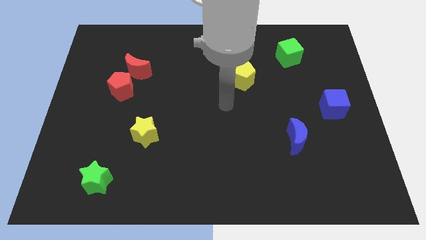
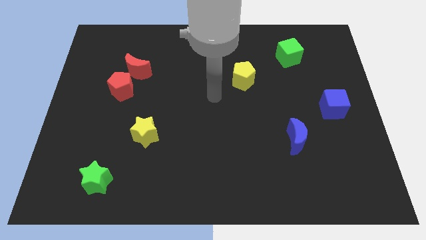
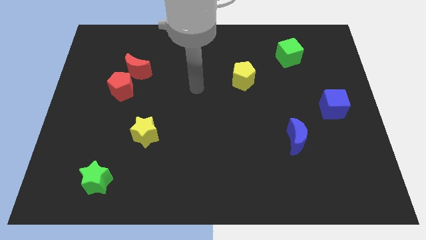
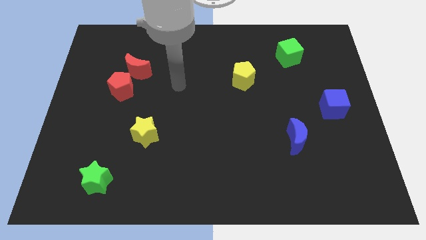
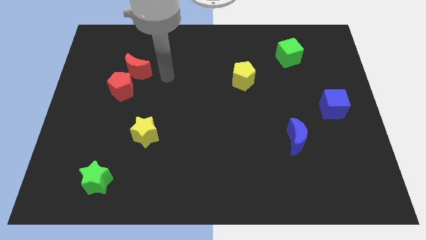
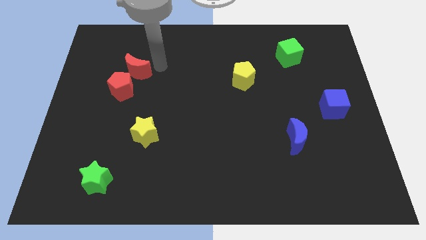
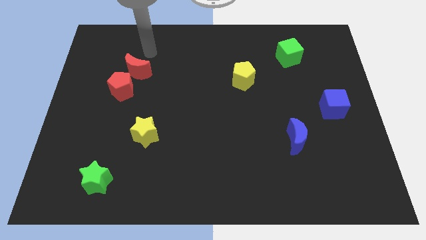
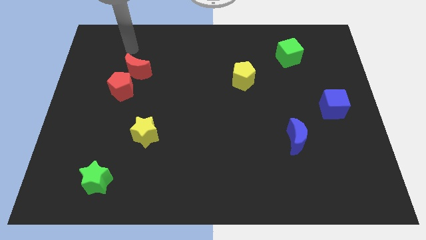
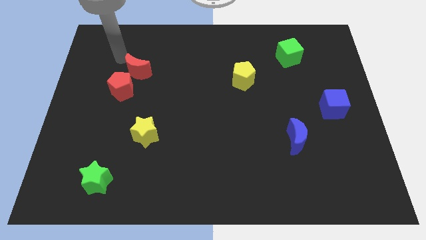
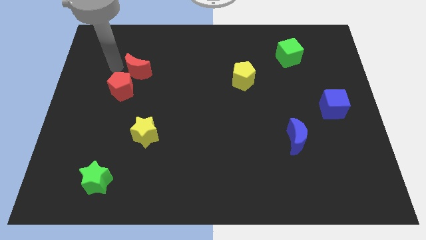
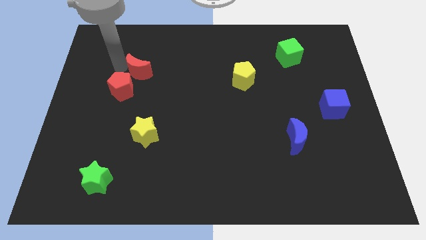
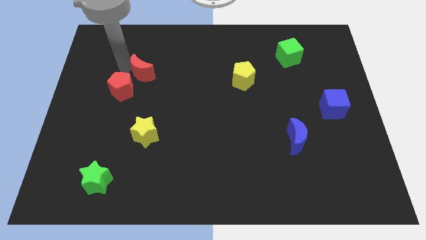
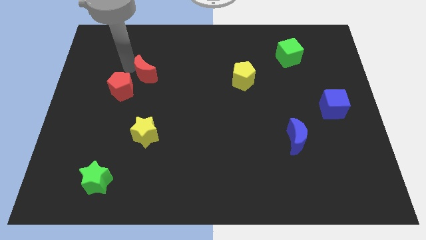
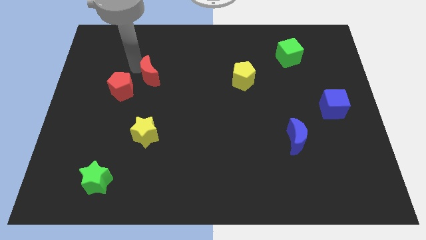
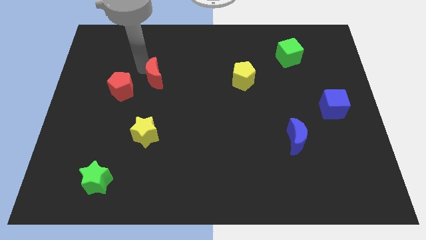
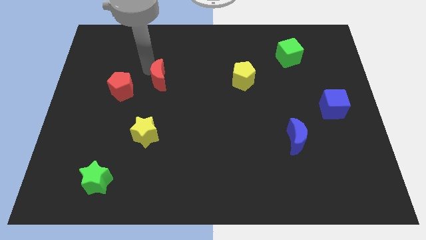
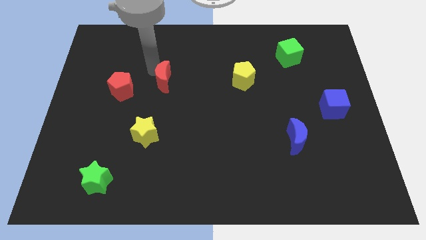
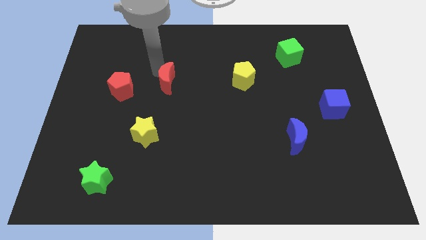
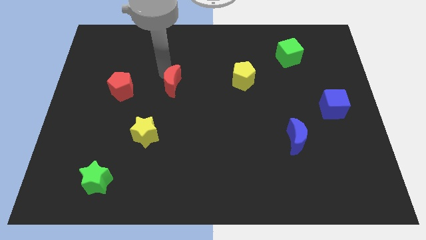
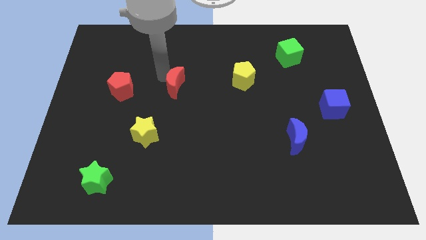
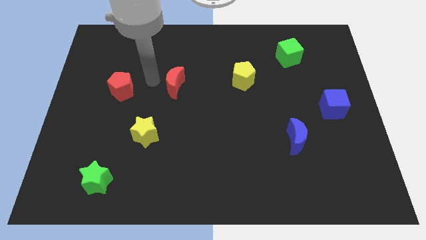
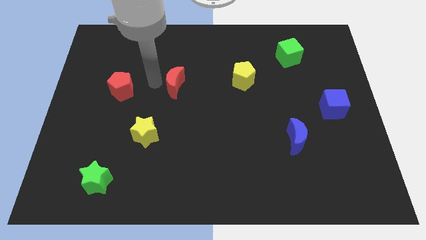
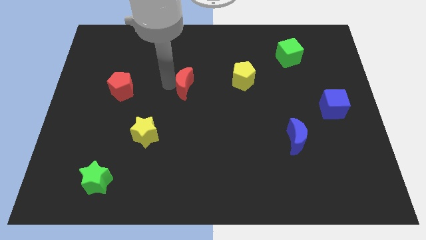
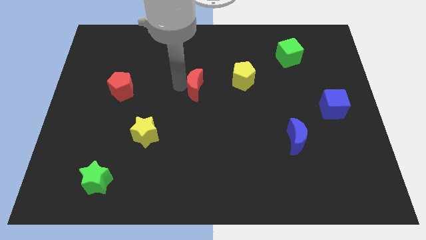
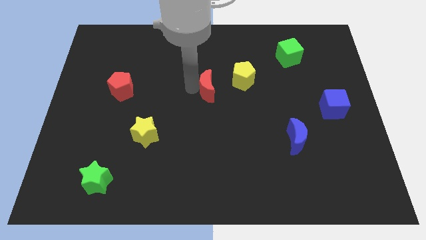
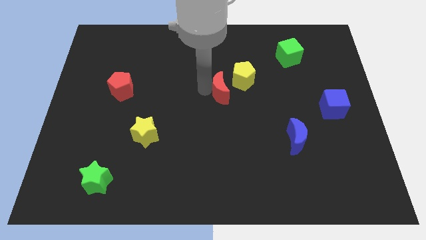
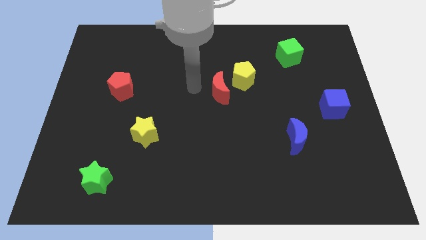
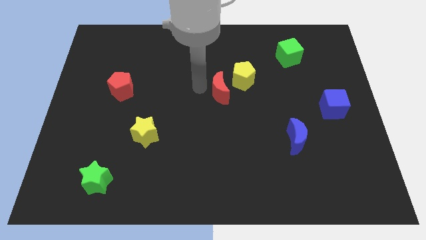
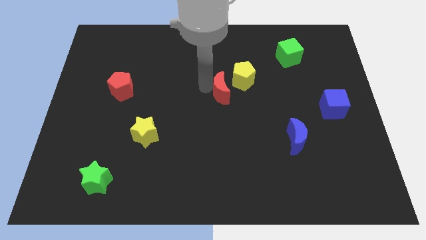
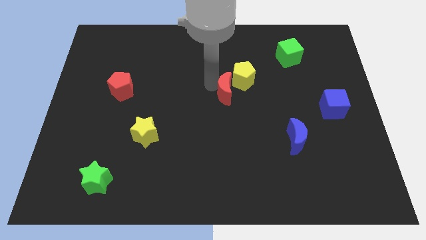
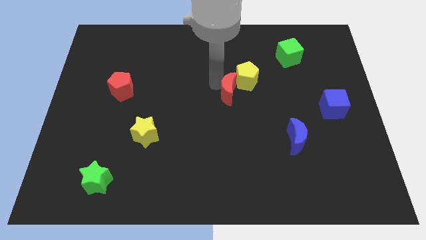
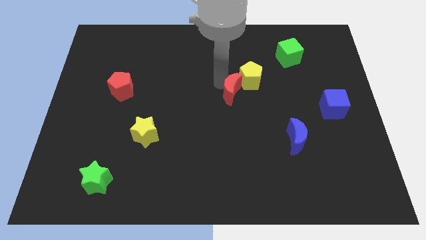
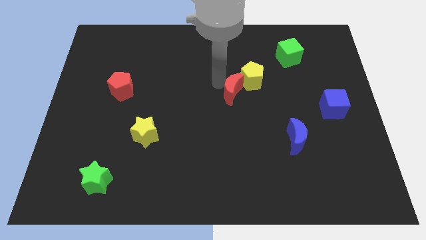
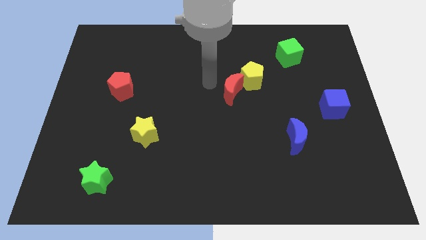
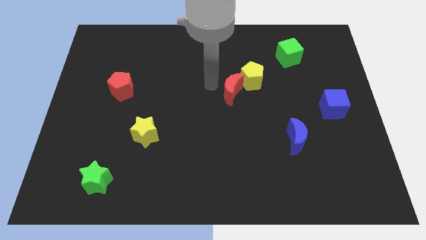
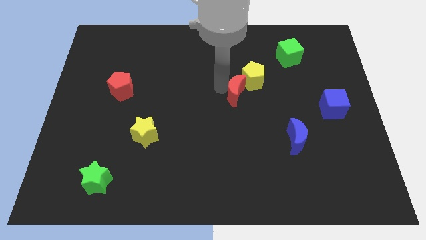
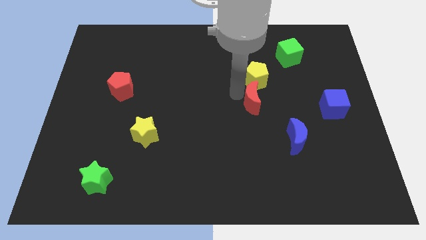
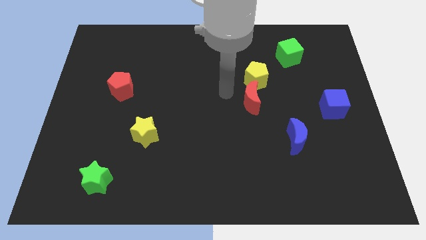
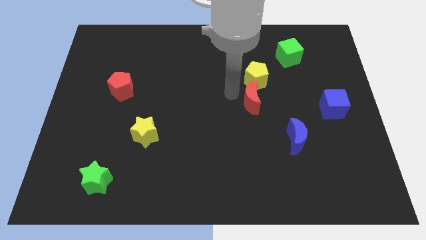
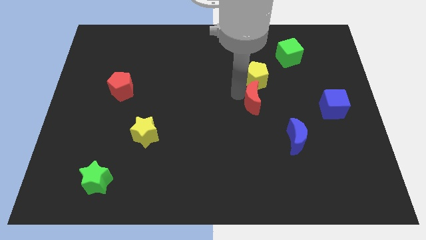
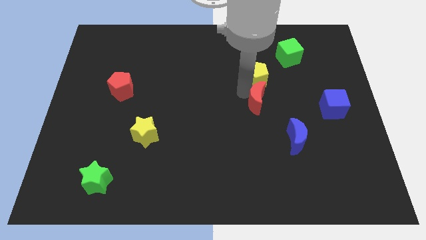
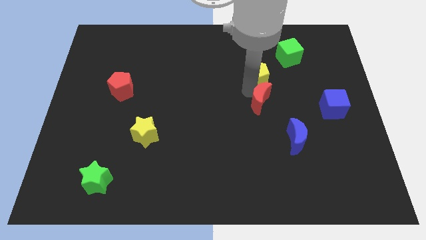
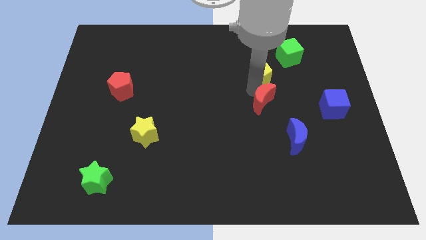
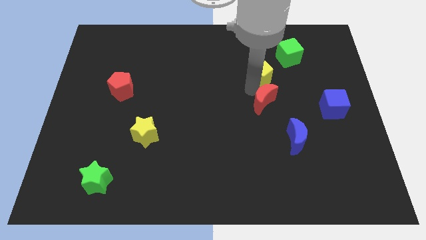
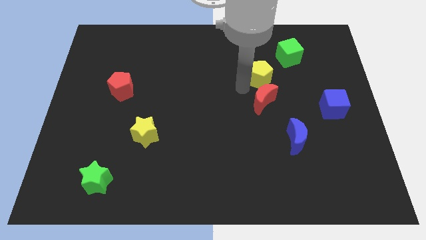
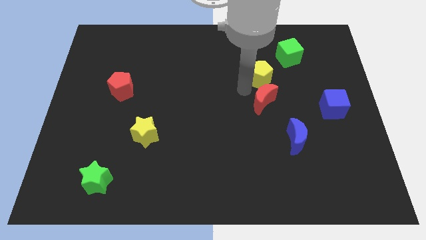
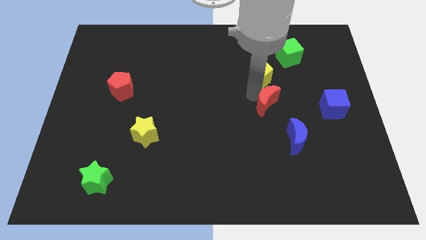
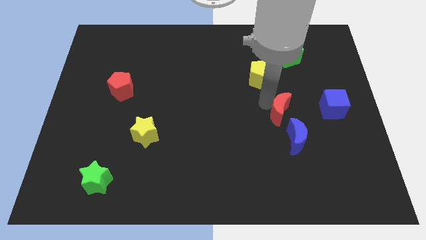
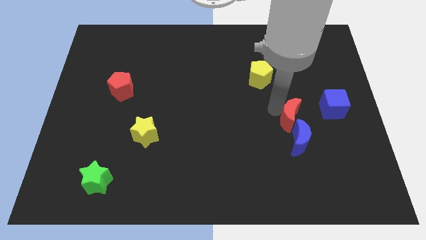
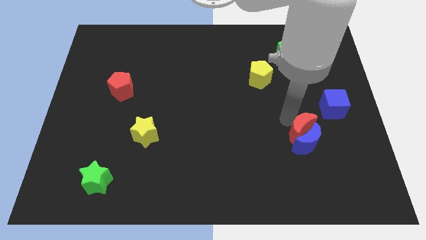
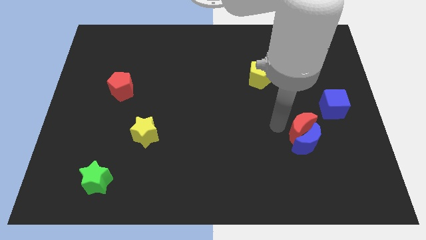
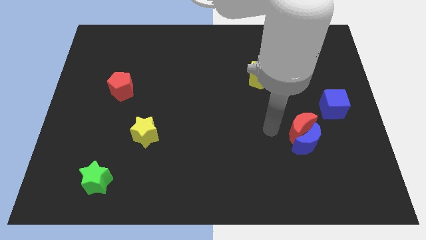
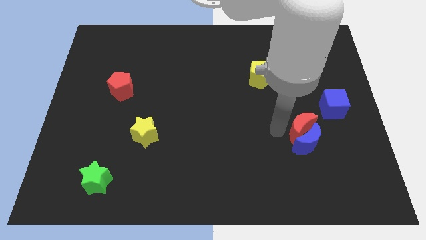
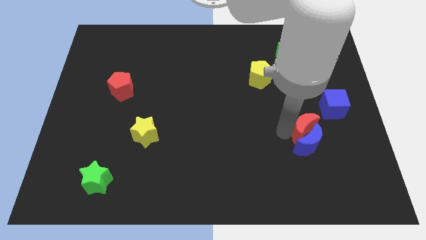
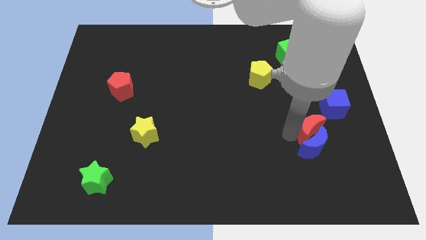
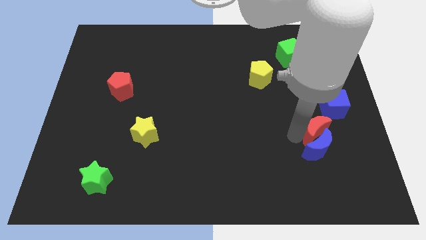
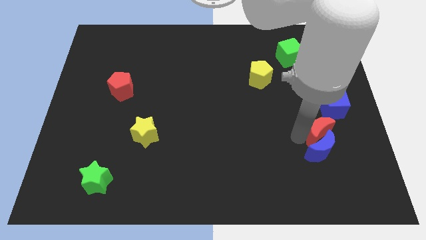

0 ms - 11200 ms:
push the red moon below the blue cube

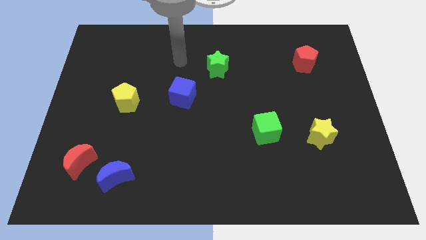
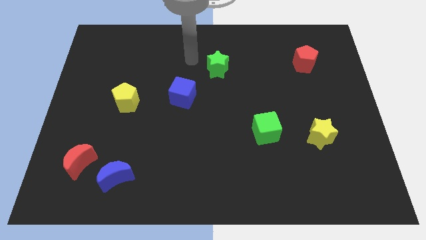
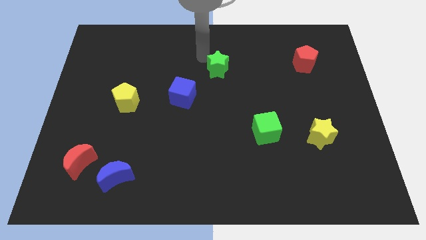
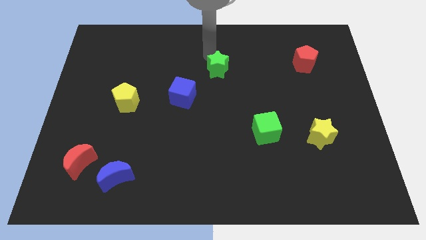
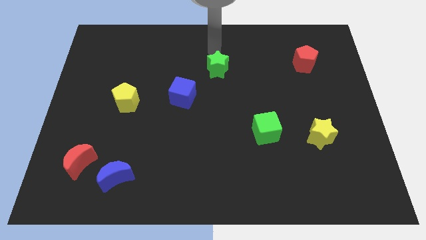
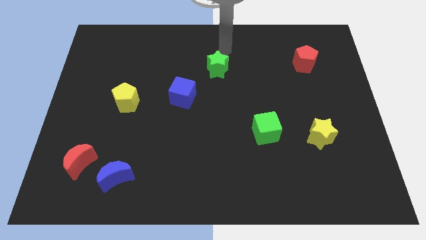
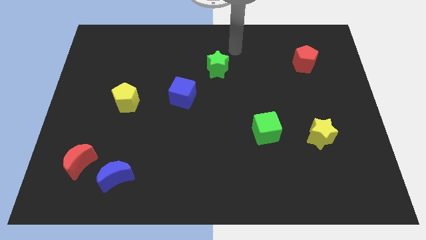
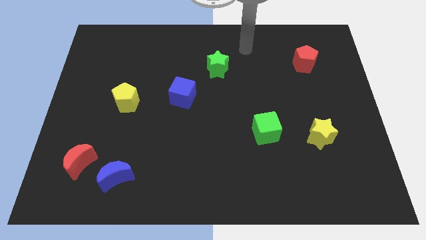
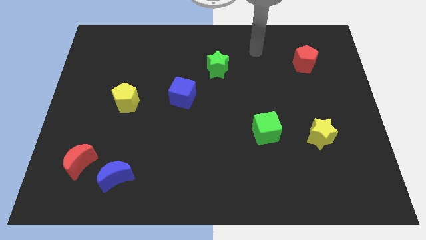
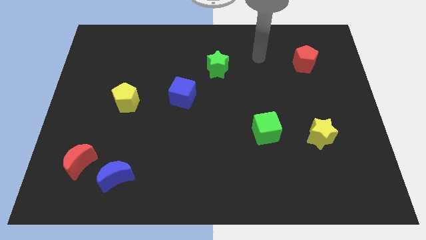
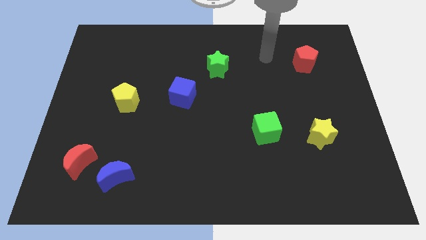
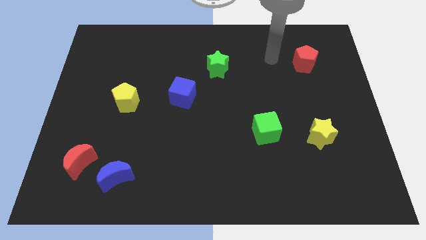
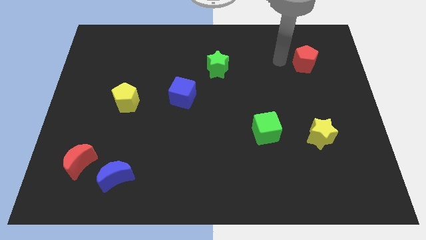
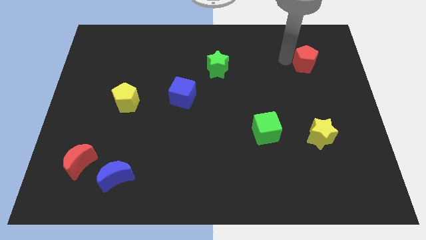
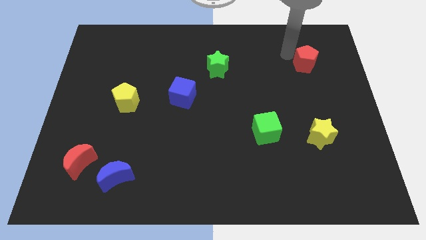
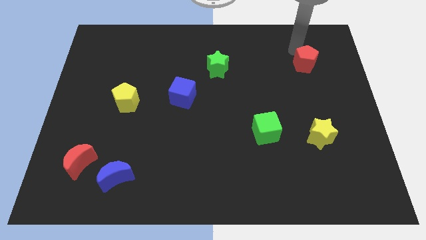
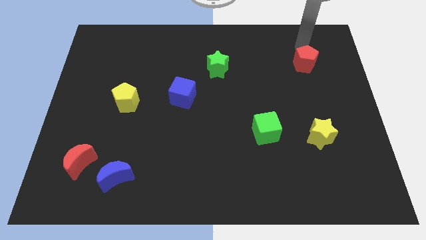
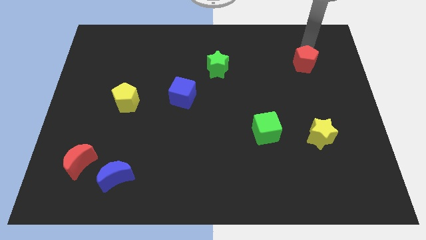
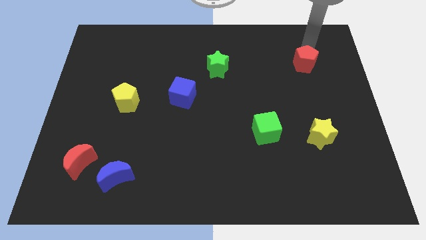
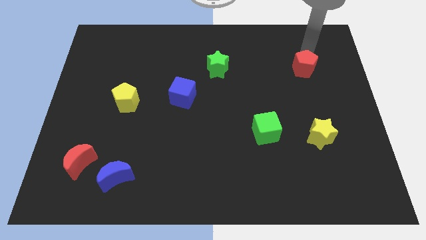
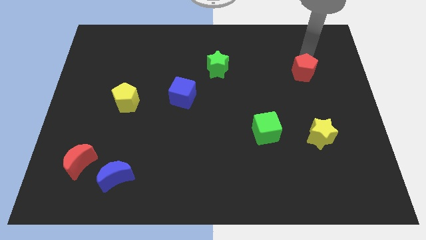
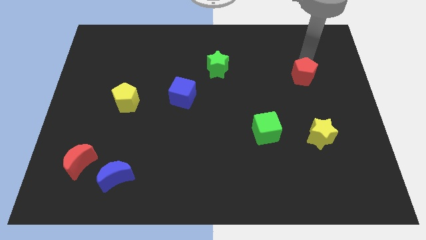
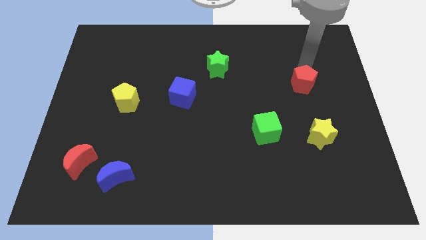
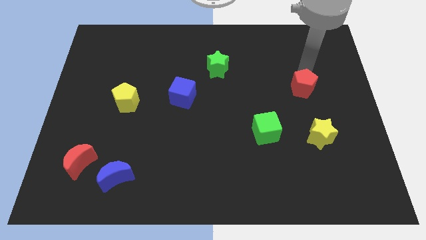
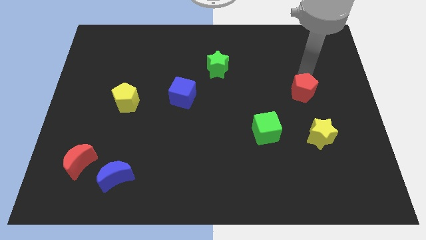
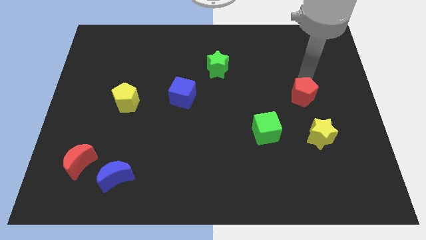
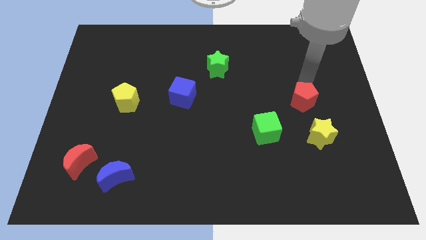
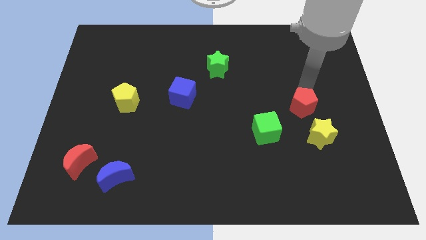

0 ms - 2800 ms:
push the red pentagon to the top left of the yellow star
